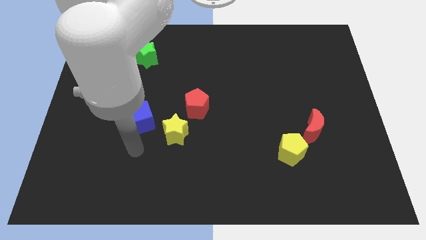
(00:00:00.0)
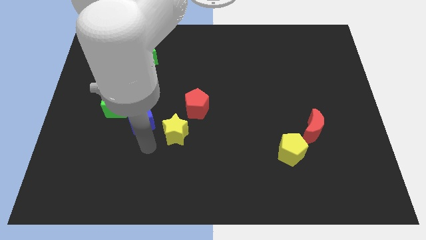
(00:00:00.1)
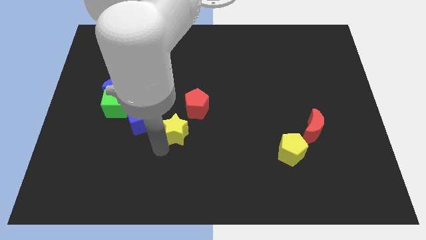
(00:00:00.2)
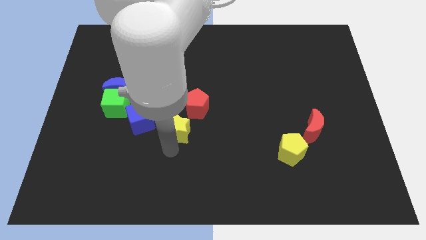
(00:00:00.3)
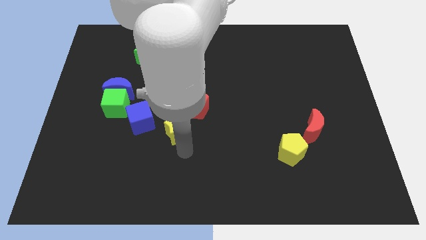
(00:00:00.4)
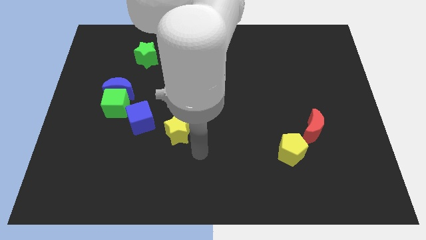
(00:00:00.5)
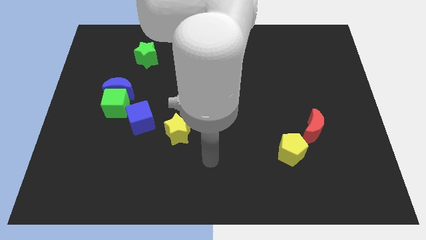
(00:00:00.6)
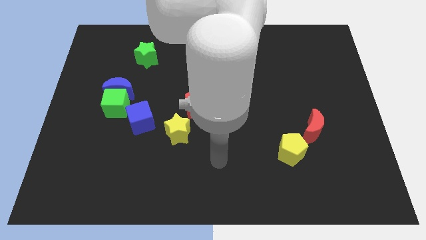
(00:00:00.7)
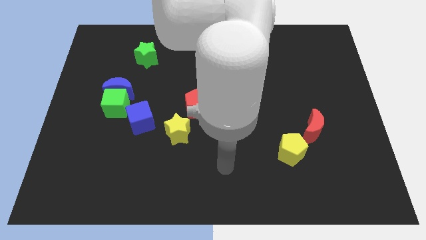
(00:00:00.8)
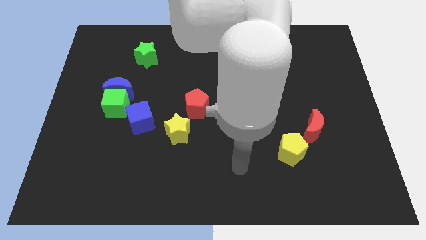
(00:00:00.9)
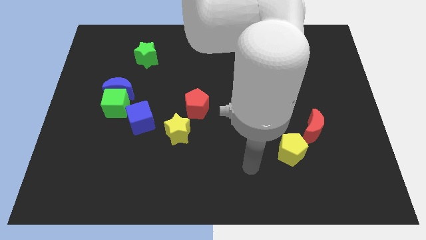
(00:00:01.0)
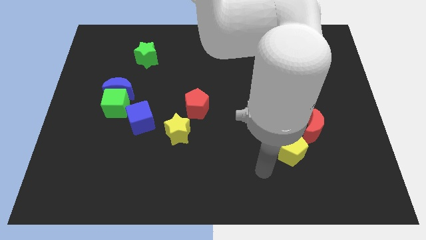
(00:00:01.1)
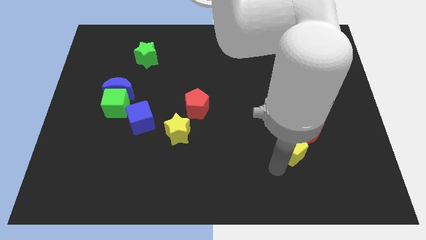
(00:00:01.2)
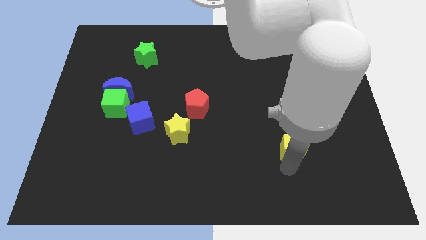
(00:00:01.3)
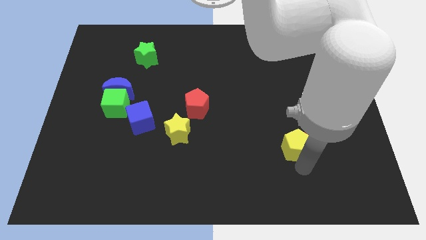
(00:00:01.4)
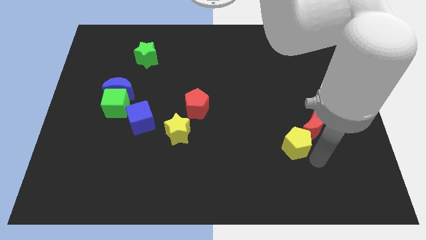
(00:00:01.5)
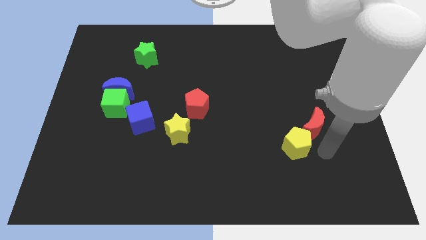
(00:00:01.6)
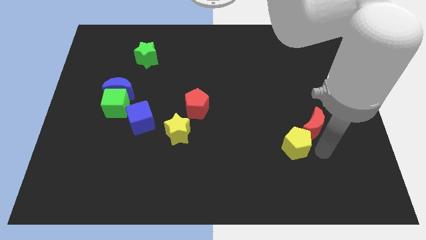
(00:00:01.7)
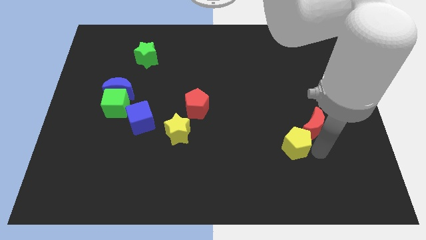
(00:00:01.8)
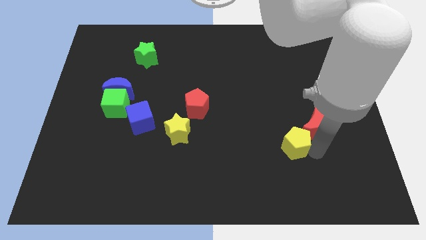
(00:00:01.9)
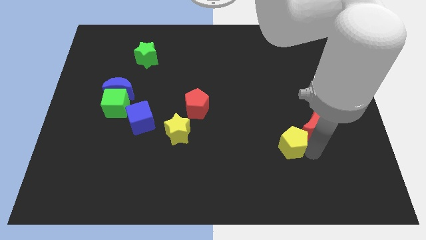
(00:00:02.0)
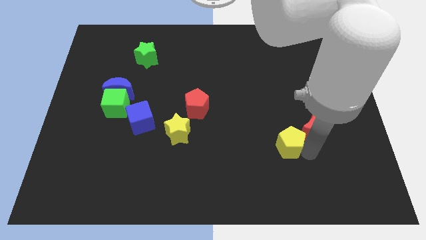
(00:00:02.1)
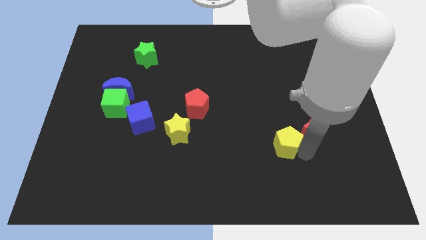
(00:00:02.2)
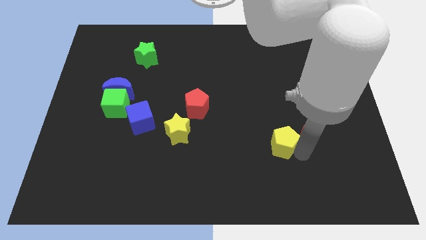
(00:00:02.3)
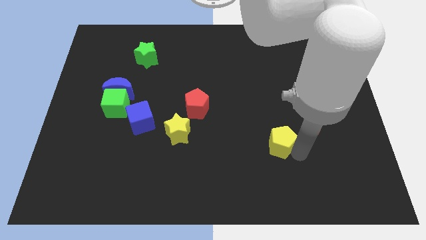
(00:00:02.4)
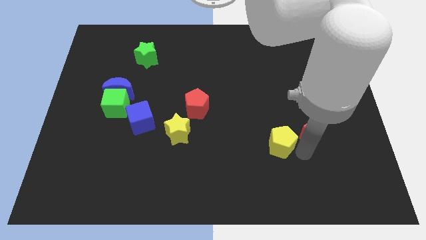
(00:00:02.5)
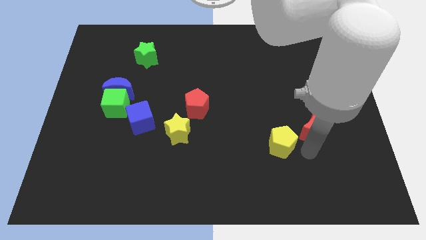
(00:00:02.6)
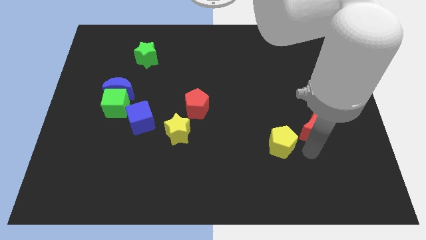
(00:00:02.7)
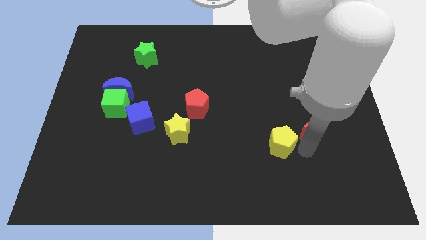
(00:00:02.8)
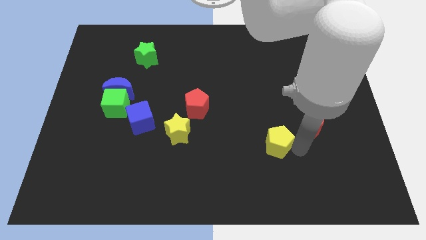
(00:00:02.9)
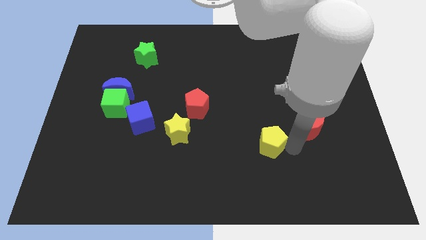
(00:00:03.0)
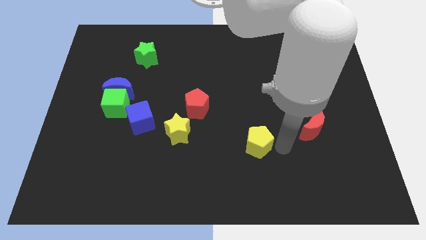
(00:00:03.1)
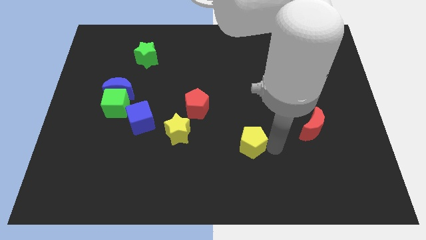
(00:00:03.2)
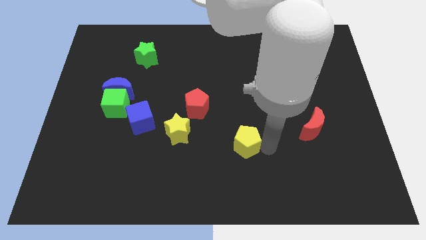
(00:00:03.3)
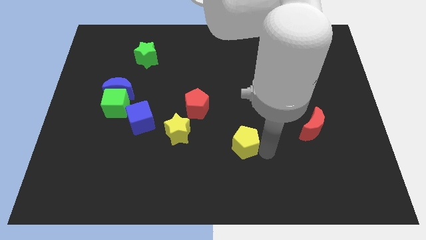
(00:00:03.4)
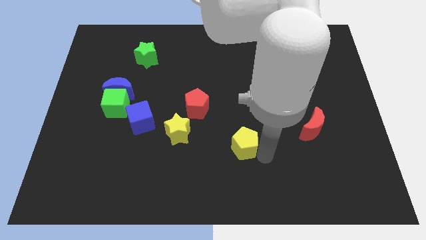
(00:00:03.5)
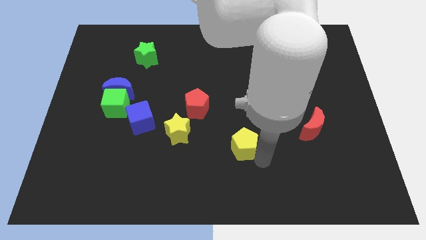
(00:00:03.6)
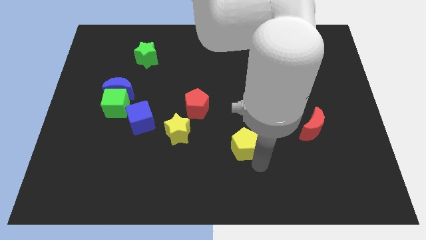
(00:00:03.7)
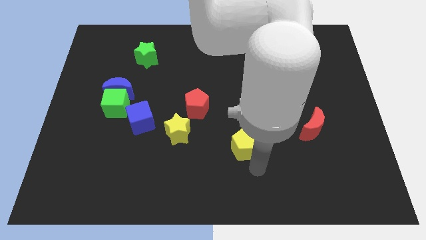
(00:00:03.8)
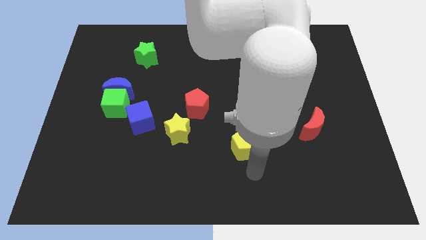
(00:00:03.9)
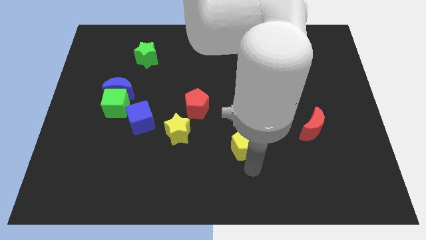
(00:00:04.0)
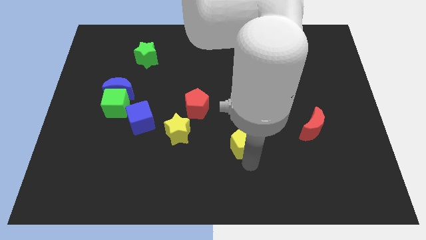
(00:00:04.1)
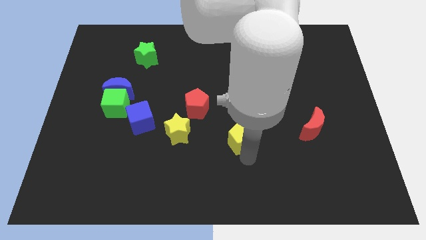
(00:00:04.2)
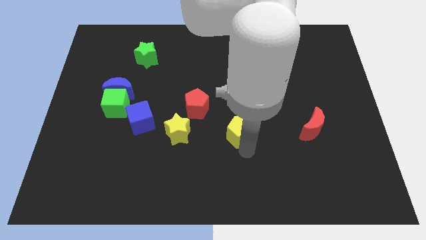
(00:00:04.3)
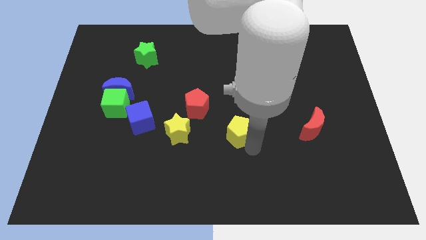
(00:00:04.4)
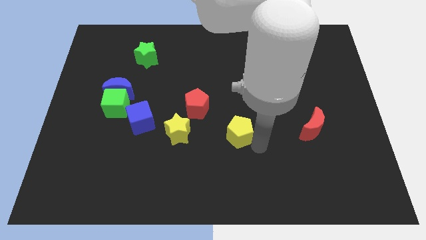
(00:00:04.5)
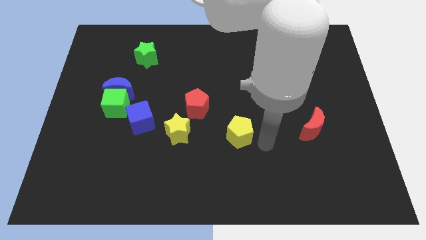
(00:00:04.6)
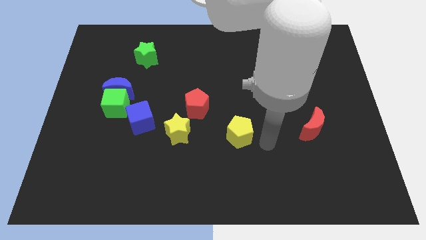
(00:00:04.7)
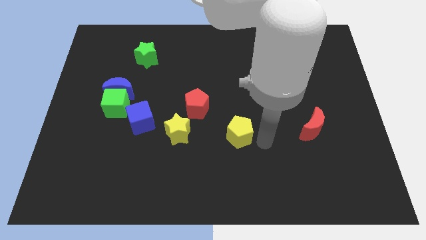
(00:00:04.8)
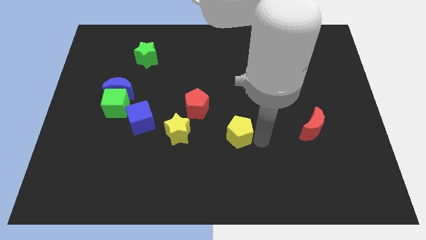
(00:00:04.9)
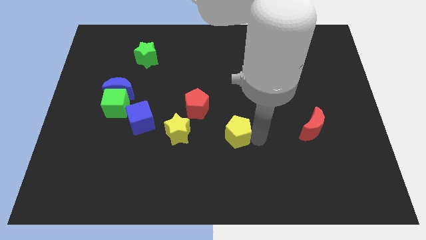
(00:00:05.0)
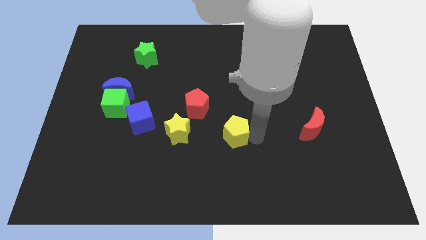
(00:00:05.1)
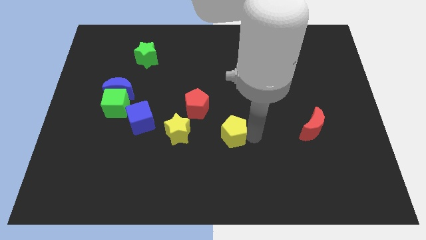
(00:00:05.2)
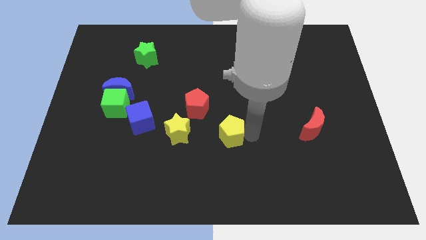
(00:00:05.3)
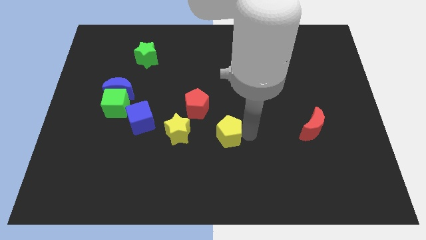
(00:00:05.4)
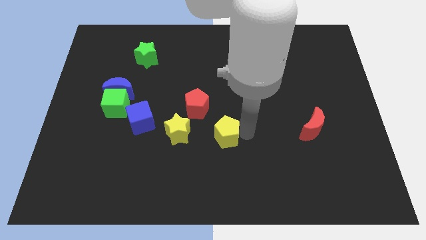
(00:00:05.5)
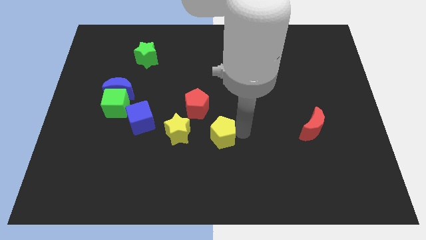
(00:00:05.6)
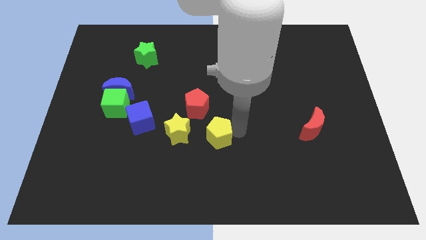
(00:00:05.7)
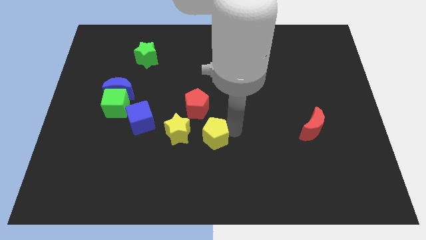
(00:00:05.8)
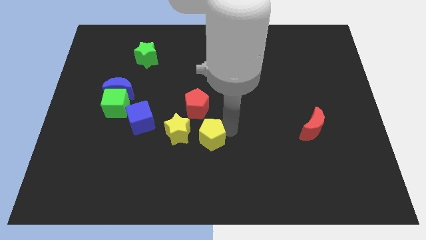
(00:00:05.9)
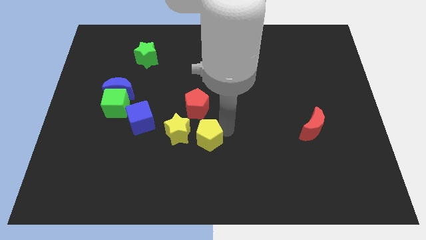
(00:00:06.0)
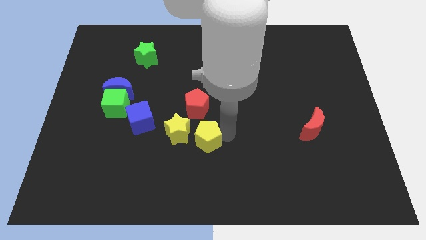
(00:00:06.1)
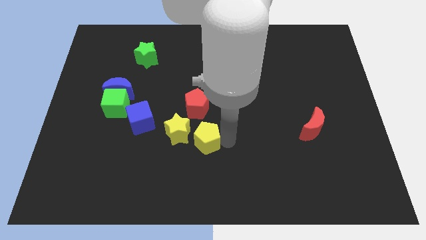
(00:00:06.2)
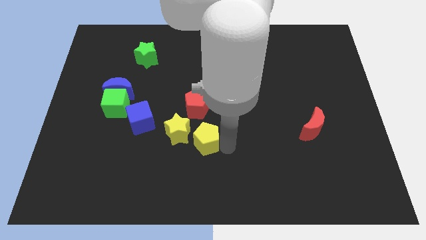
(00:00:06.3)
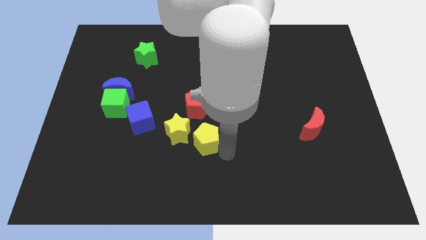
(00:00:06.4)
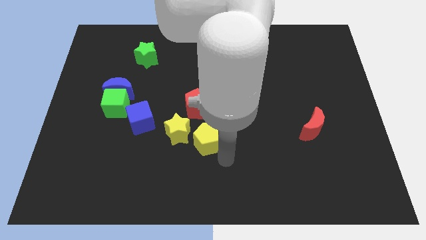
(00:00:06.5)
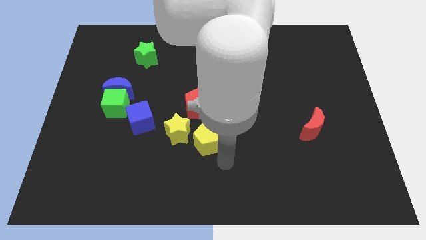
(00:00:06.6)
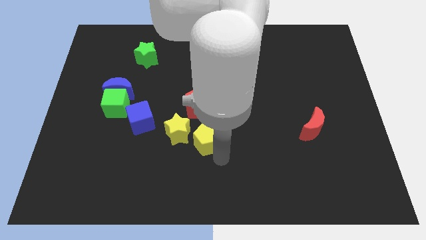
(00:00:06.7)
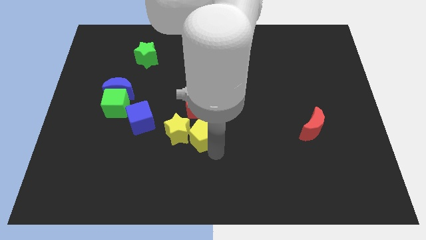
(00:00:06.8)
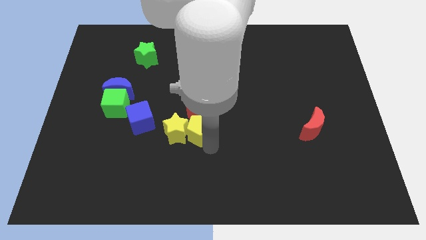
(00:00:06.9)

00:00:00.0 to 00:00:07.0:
move the yellow pentagon right of the blue cube

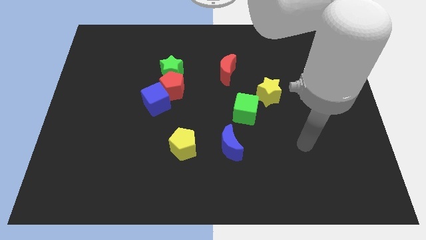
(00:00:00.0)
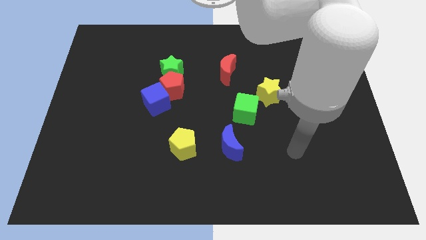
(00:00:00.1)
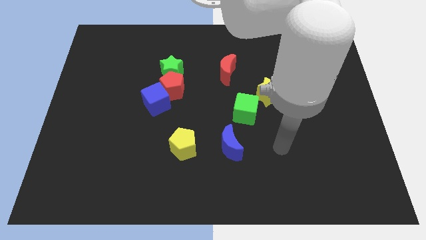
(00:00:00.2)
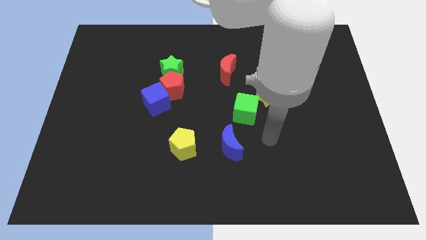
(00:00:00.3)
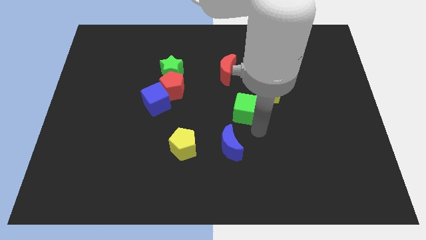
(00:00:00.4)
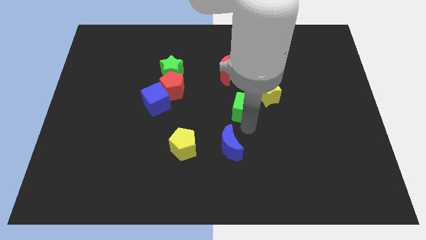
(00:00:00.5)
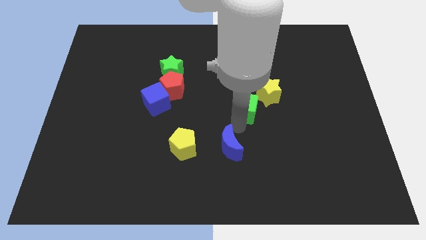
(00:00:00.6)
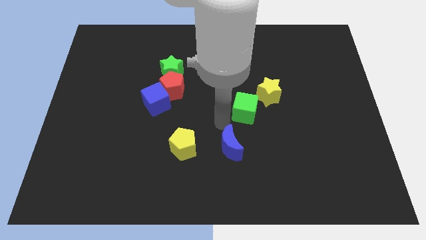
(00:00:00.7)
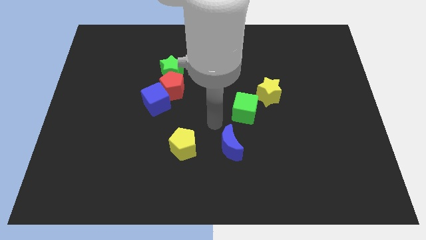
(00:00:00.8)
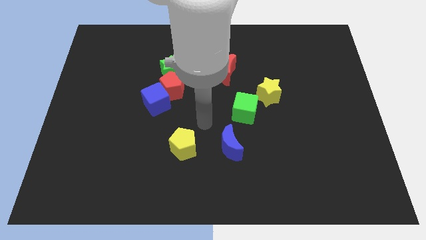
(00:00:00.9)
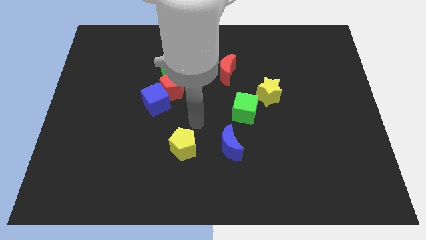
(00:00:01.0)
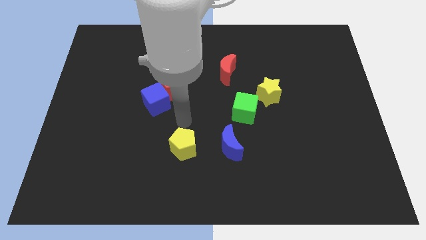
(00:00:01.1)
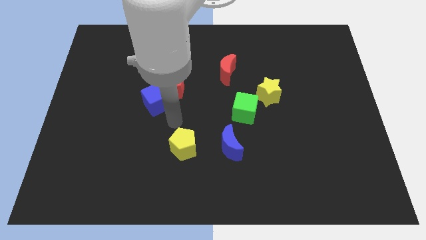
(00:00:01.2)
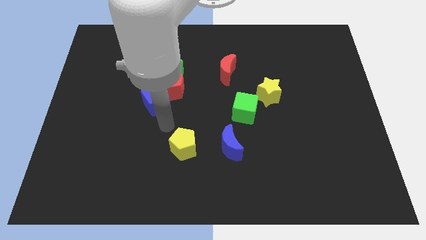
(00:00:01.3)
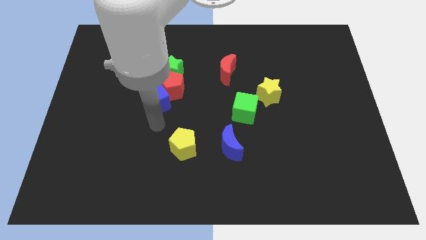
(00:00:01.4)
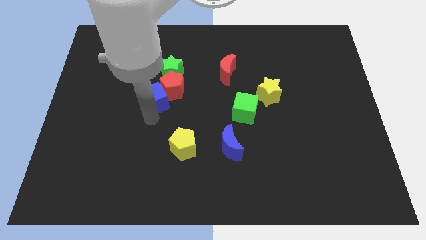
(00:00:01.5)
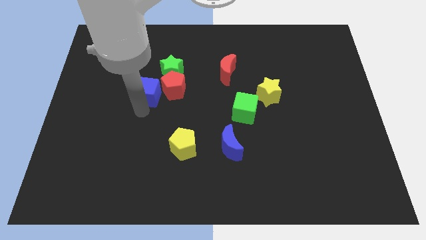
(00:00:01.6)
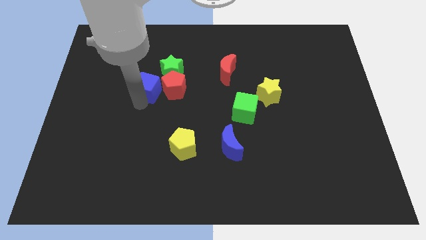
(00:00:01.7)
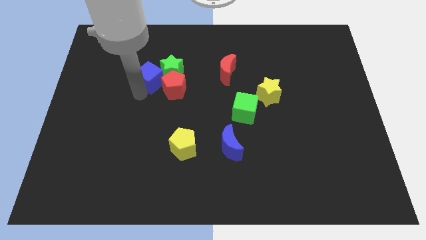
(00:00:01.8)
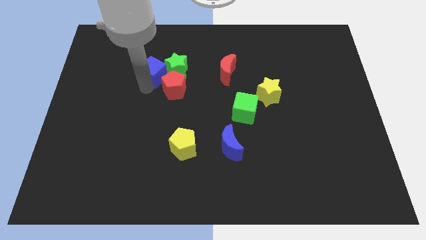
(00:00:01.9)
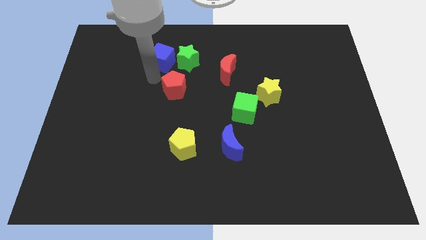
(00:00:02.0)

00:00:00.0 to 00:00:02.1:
move the green star diagonally up and to the left of the red moon
